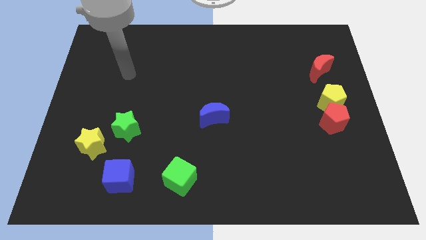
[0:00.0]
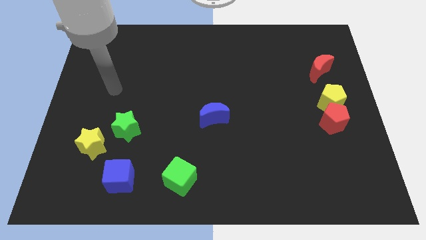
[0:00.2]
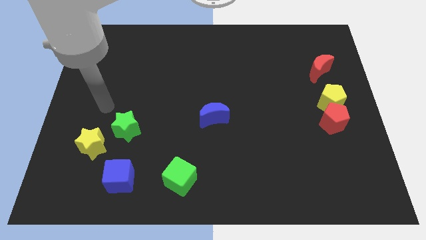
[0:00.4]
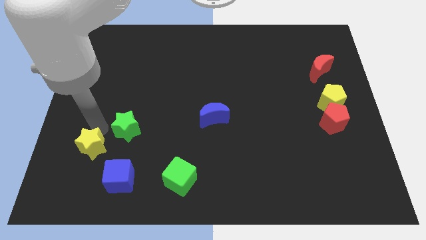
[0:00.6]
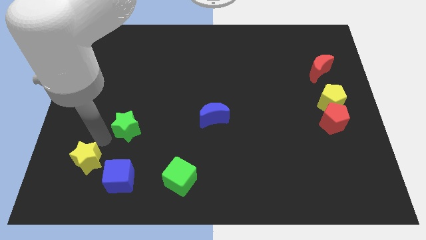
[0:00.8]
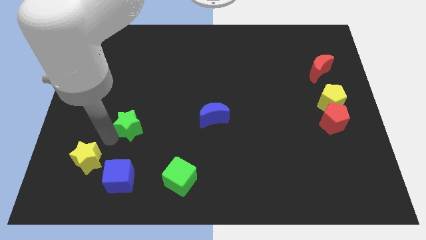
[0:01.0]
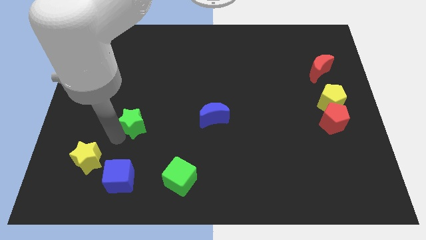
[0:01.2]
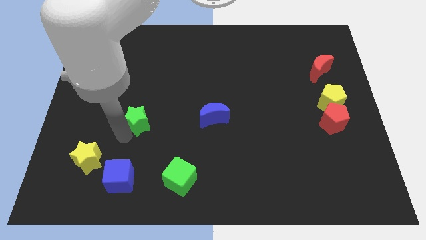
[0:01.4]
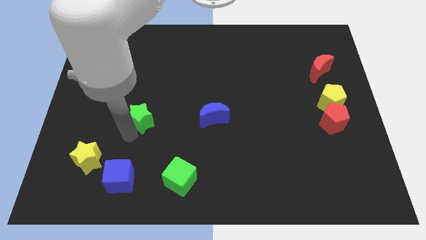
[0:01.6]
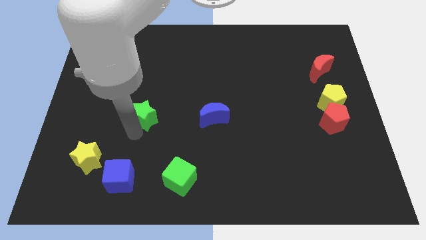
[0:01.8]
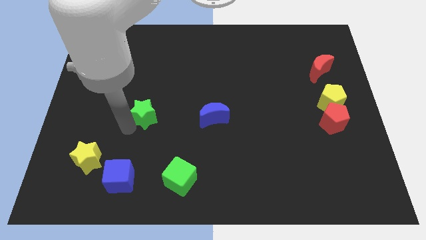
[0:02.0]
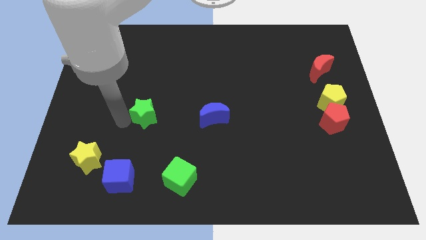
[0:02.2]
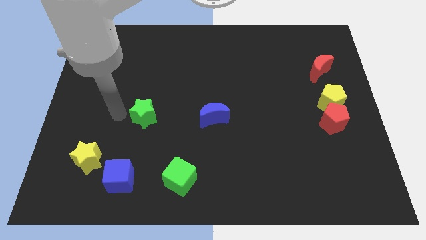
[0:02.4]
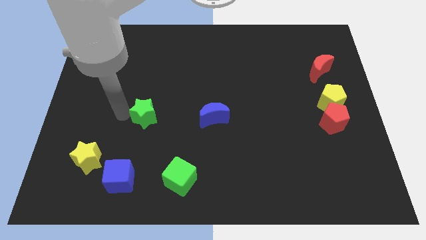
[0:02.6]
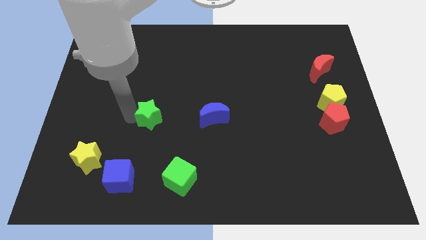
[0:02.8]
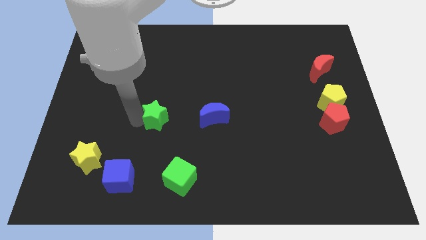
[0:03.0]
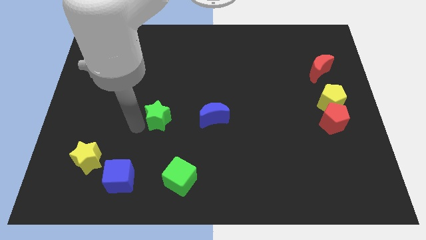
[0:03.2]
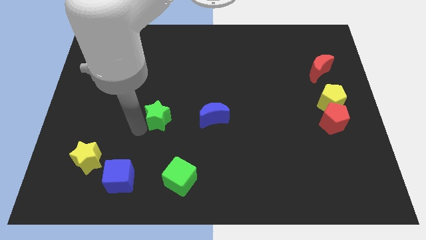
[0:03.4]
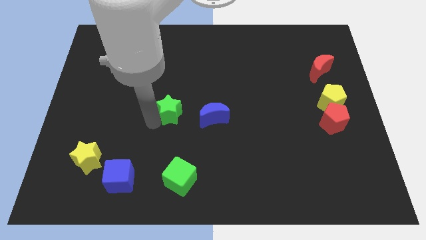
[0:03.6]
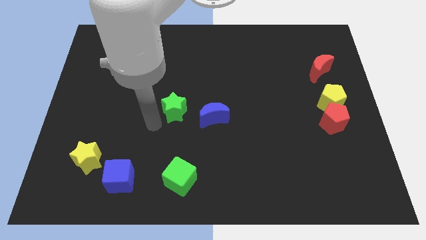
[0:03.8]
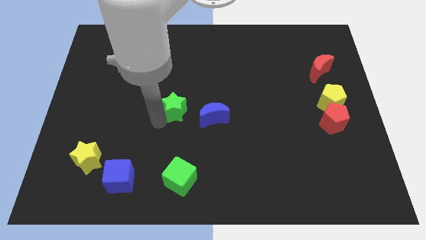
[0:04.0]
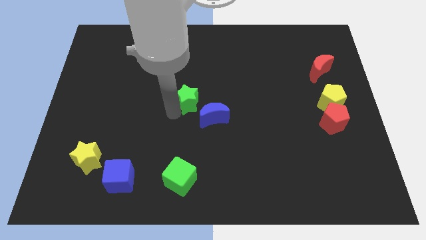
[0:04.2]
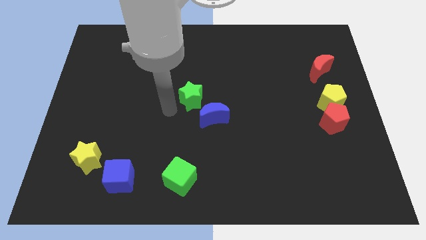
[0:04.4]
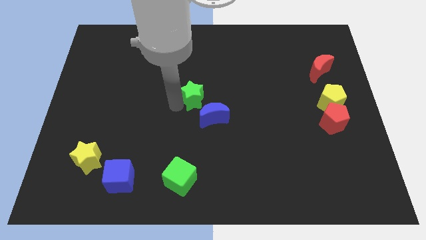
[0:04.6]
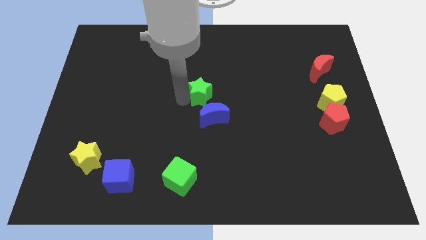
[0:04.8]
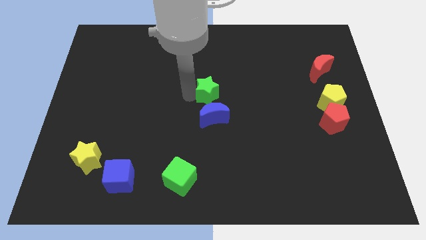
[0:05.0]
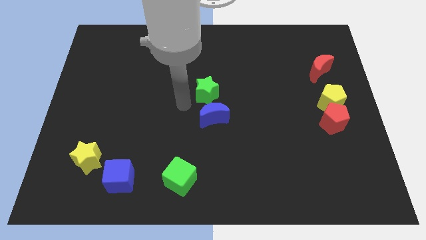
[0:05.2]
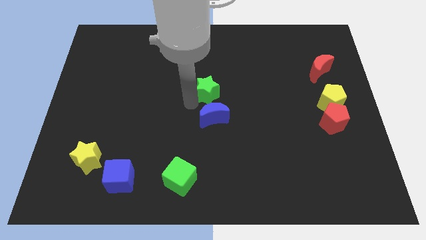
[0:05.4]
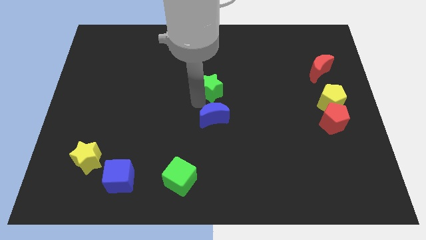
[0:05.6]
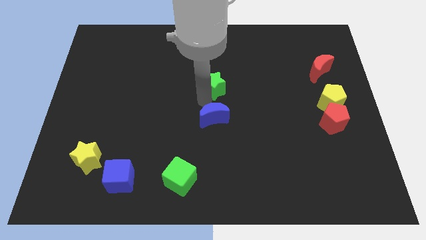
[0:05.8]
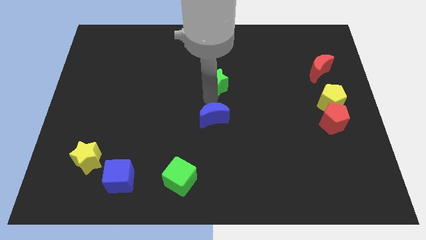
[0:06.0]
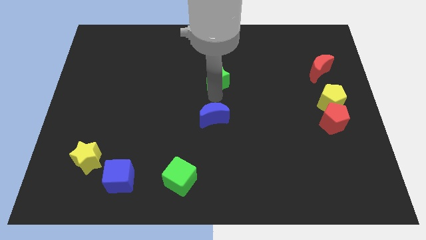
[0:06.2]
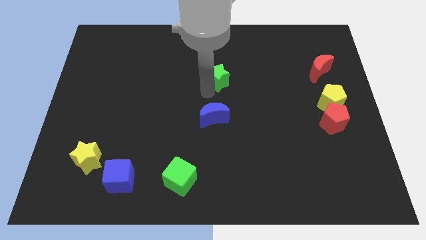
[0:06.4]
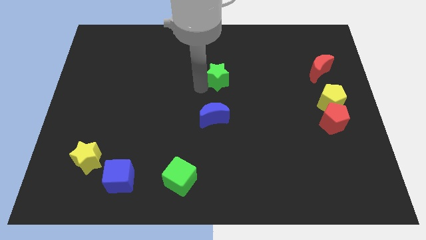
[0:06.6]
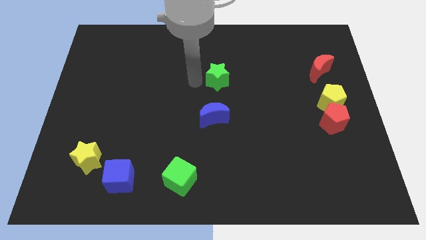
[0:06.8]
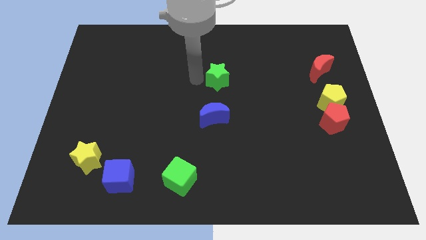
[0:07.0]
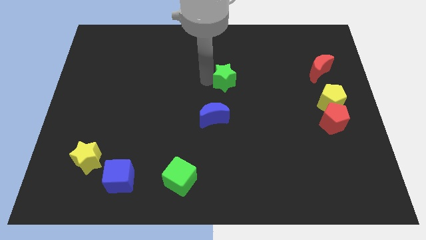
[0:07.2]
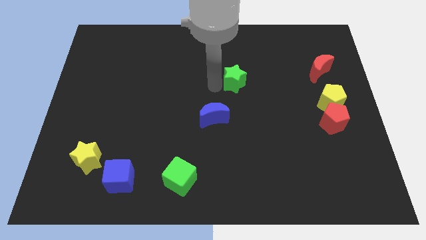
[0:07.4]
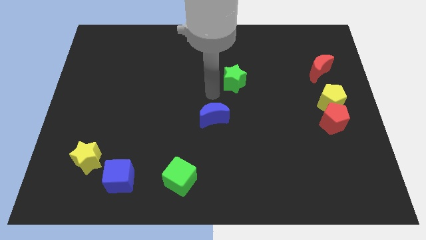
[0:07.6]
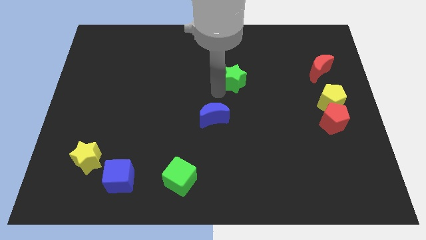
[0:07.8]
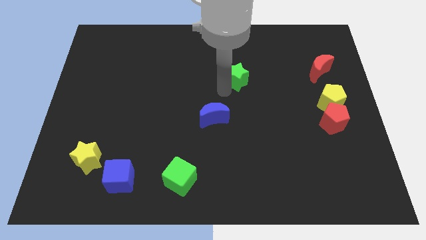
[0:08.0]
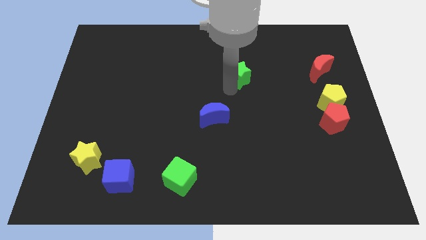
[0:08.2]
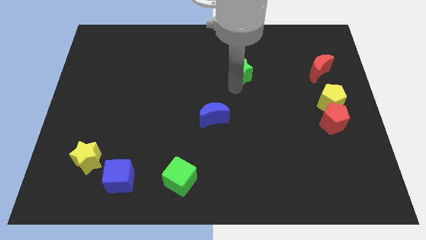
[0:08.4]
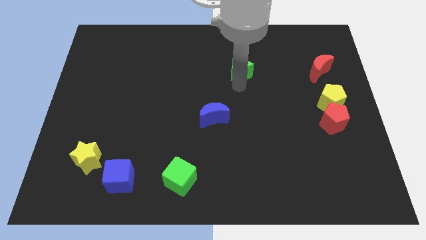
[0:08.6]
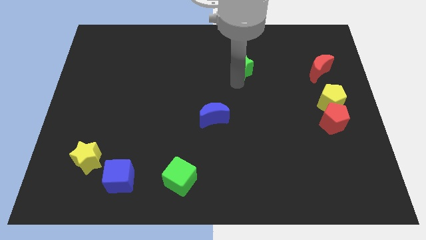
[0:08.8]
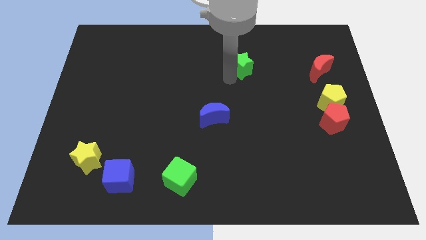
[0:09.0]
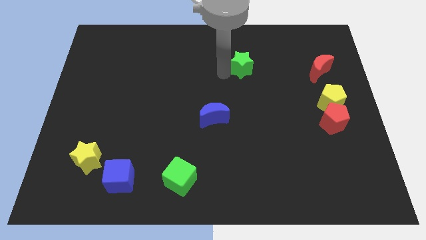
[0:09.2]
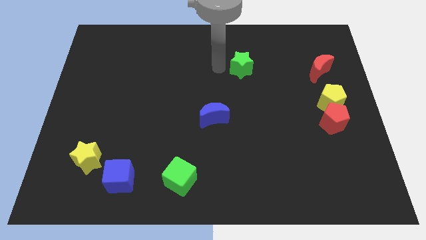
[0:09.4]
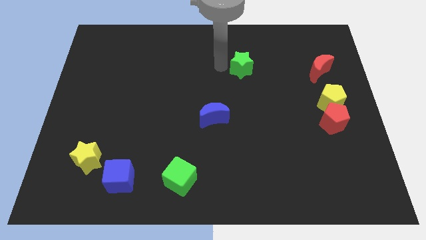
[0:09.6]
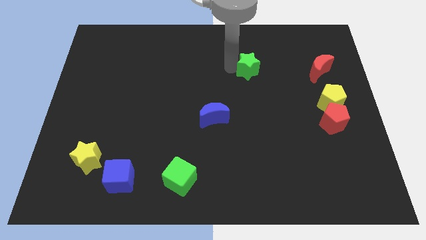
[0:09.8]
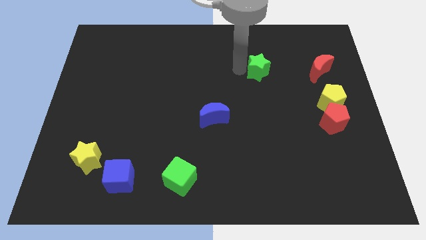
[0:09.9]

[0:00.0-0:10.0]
slide the green star to the left side of the red moon

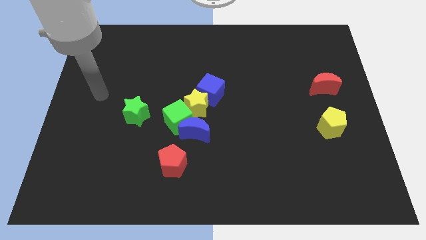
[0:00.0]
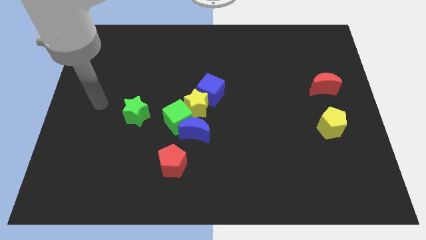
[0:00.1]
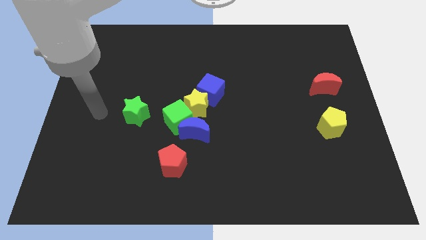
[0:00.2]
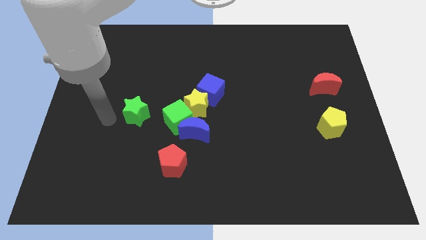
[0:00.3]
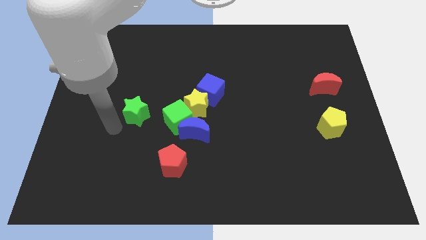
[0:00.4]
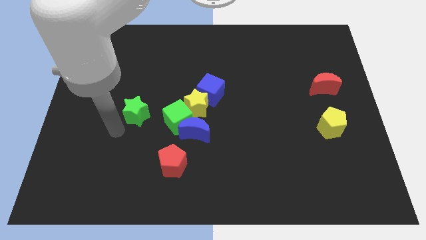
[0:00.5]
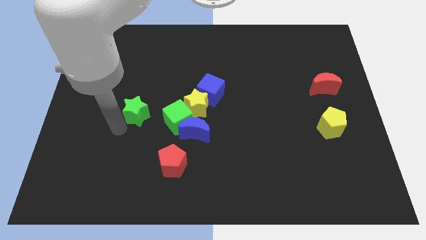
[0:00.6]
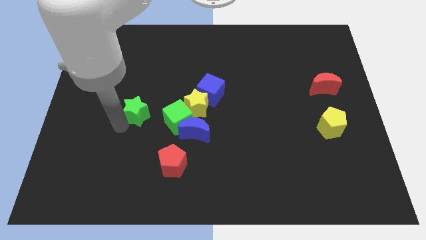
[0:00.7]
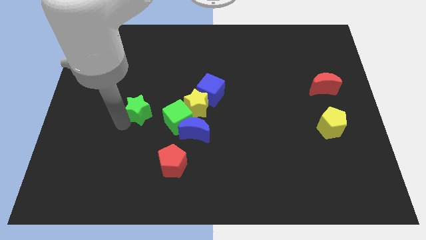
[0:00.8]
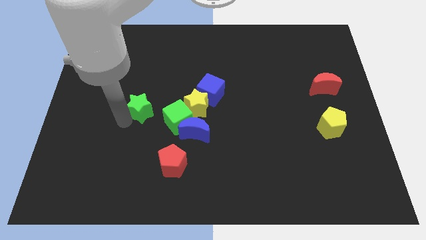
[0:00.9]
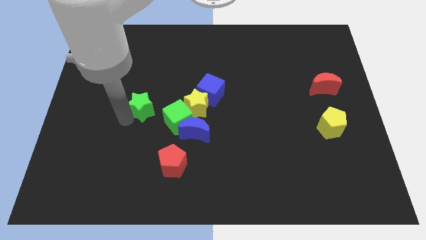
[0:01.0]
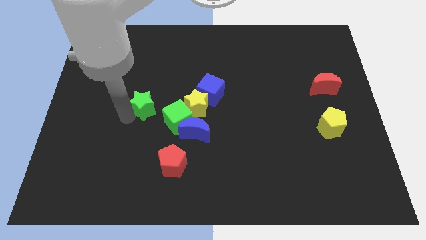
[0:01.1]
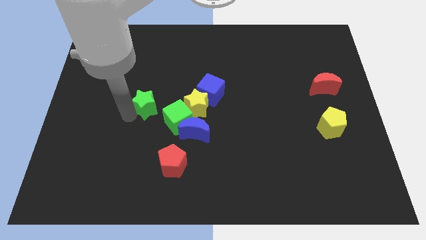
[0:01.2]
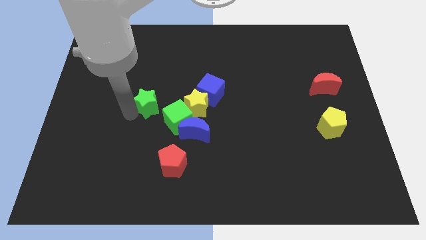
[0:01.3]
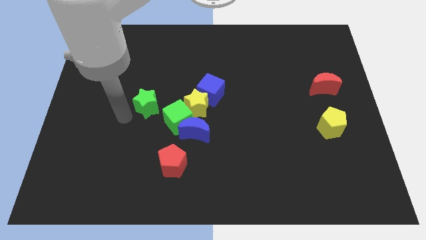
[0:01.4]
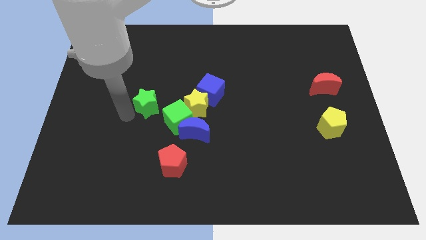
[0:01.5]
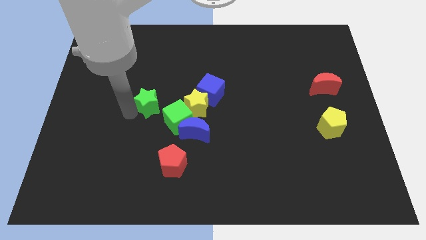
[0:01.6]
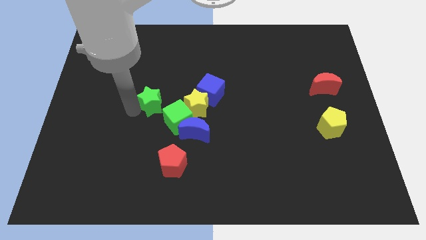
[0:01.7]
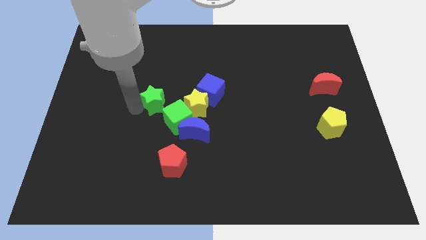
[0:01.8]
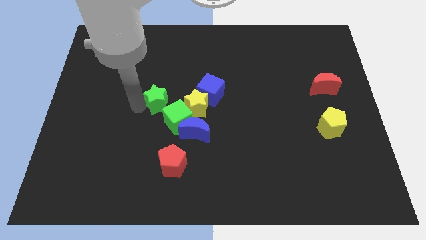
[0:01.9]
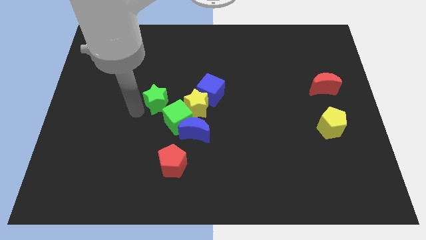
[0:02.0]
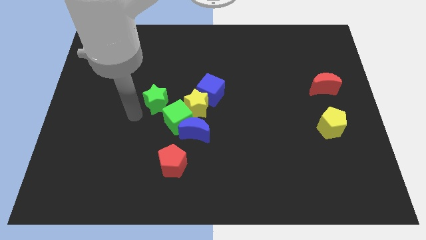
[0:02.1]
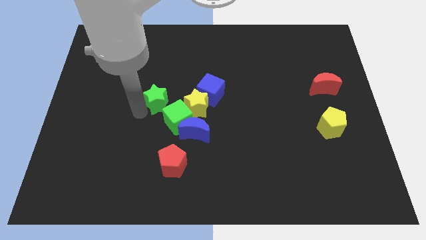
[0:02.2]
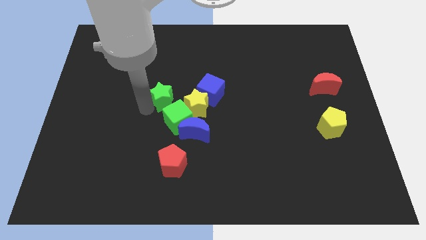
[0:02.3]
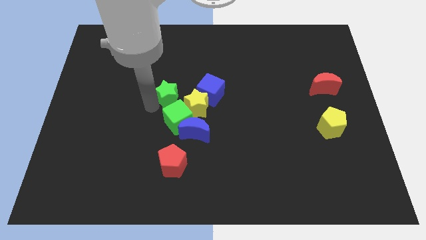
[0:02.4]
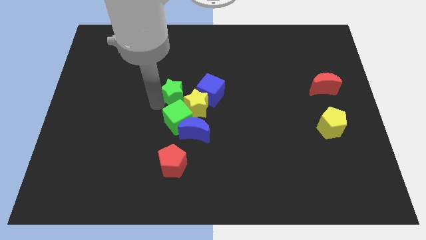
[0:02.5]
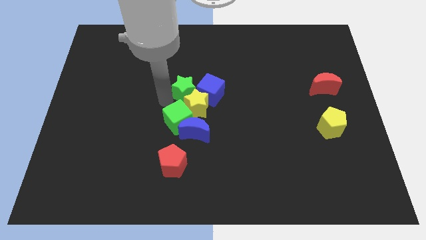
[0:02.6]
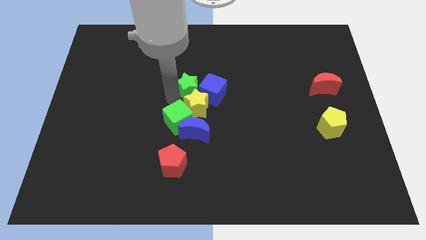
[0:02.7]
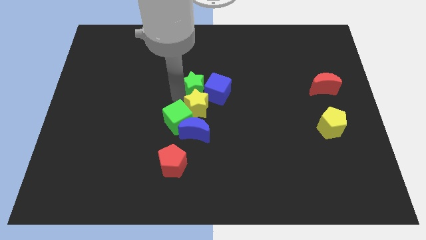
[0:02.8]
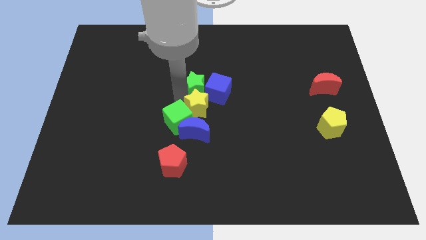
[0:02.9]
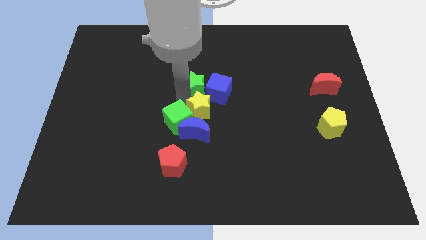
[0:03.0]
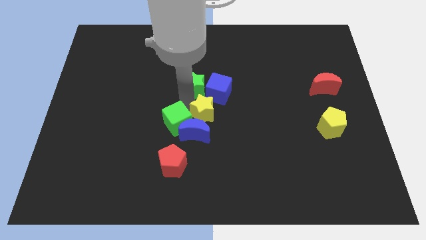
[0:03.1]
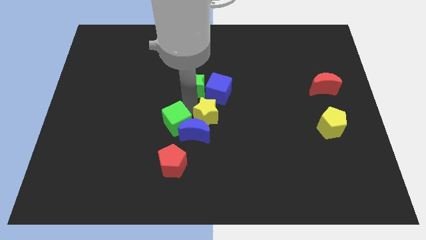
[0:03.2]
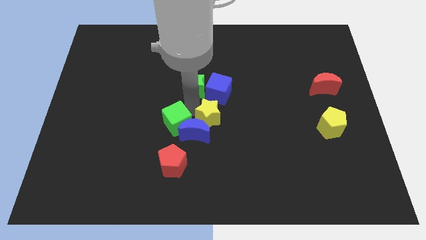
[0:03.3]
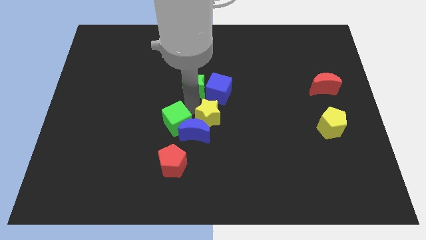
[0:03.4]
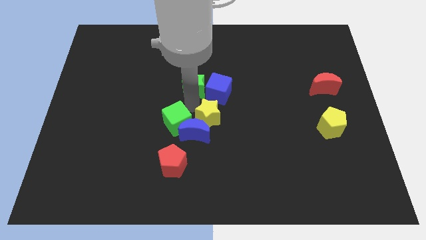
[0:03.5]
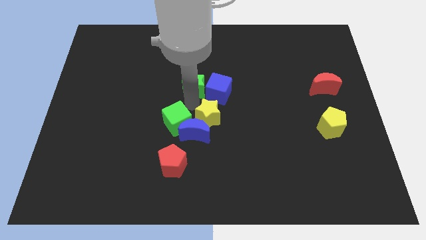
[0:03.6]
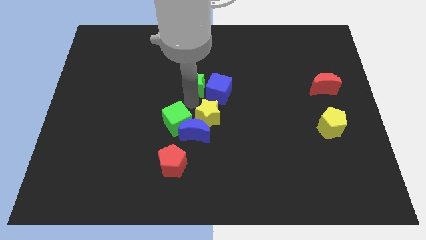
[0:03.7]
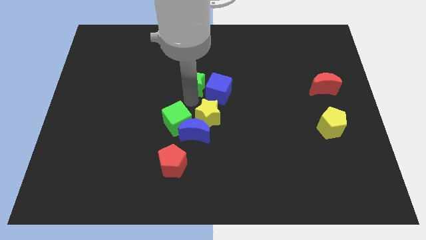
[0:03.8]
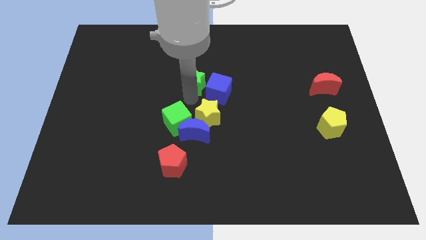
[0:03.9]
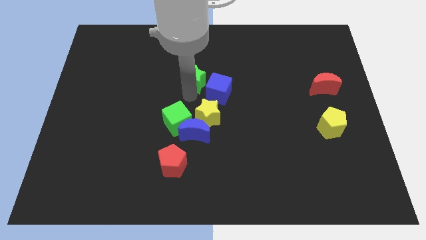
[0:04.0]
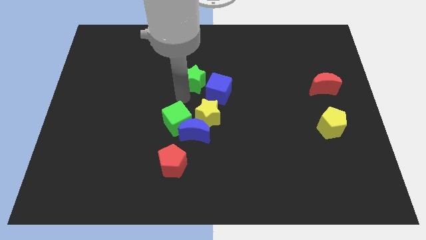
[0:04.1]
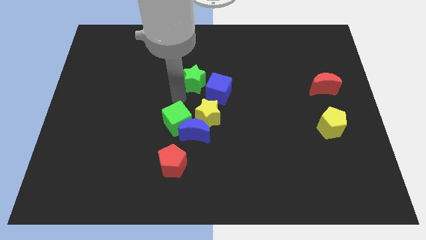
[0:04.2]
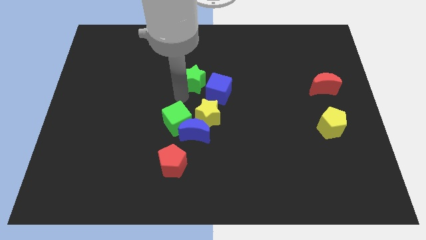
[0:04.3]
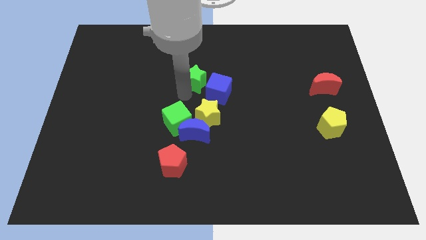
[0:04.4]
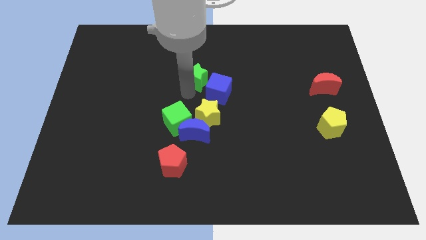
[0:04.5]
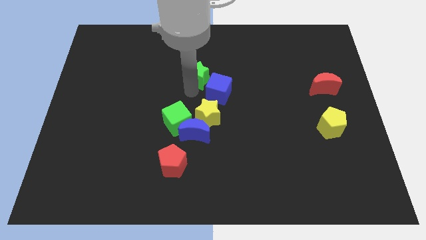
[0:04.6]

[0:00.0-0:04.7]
push the green star above the blue cube
